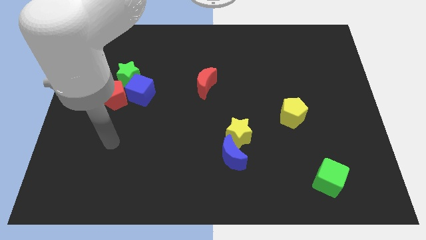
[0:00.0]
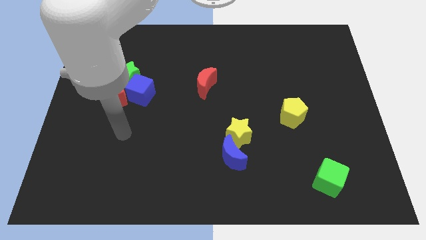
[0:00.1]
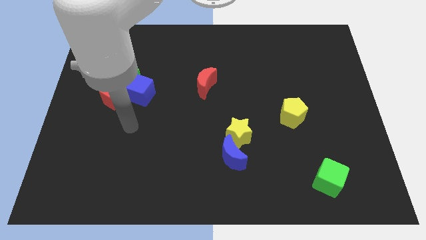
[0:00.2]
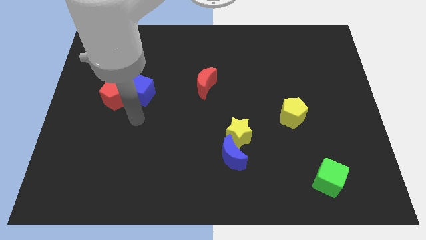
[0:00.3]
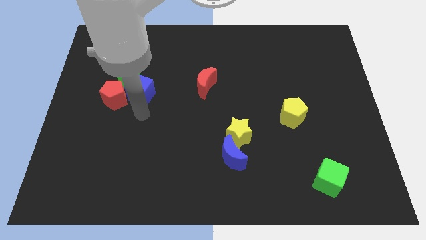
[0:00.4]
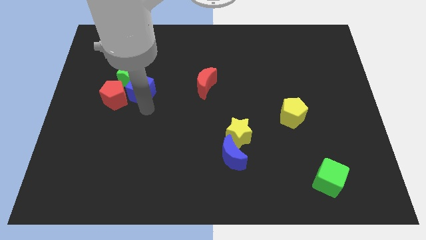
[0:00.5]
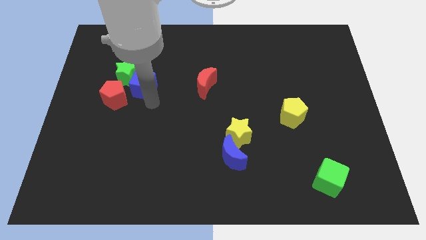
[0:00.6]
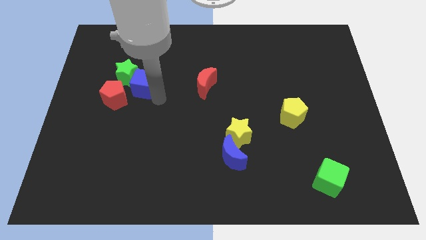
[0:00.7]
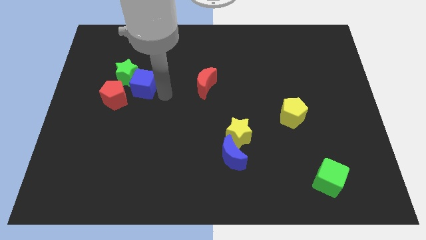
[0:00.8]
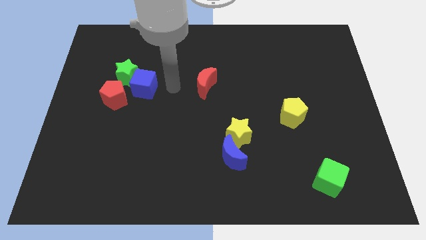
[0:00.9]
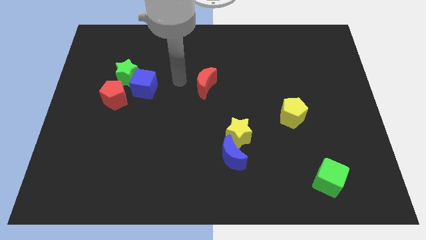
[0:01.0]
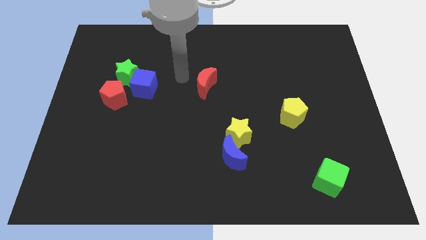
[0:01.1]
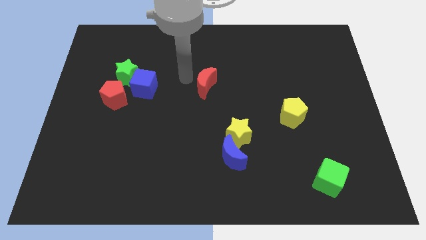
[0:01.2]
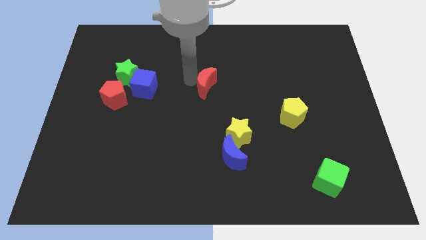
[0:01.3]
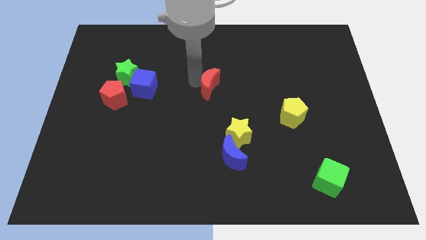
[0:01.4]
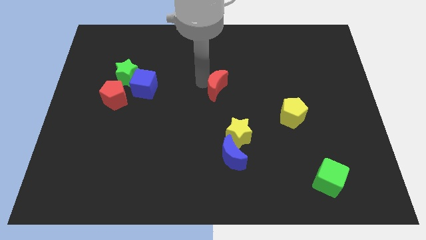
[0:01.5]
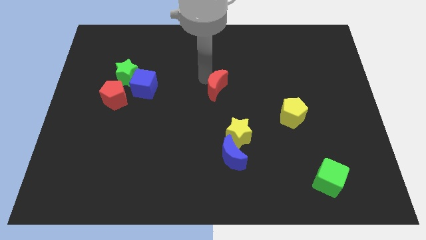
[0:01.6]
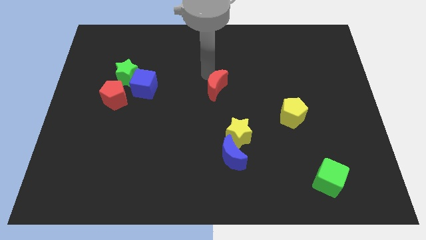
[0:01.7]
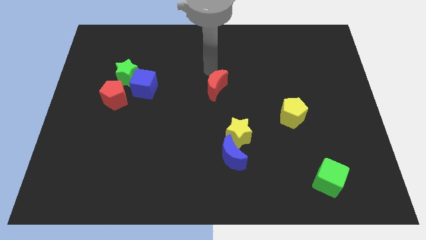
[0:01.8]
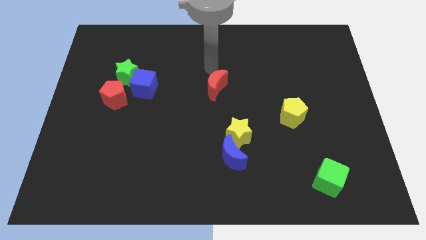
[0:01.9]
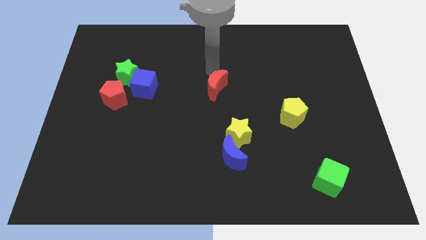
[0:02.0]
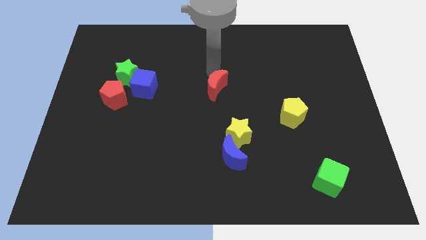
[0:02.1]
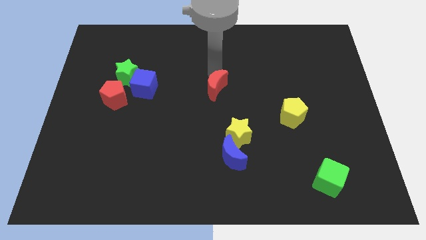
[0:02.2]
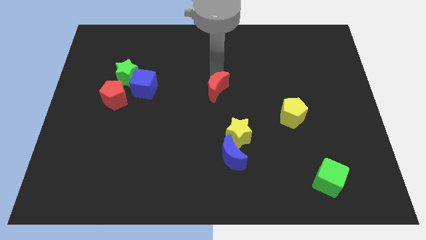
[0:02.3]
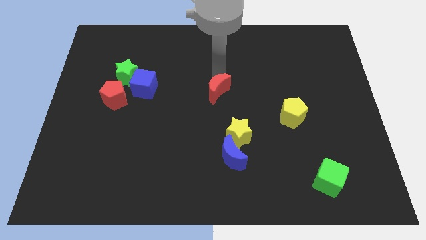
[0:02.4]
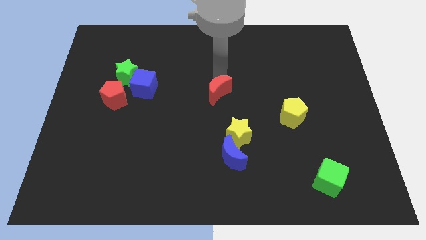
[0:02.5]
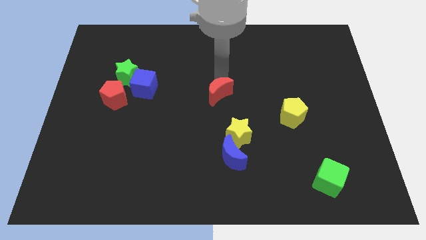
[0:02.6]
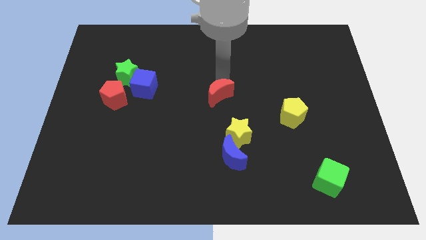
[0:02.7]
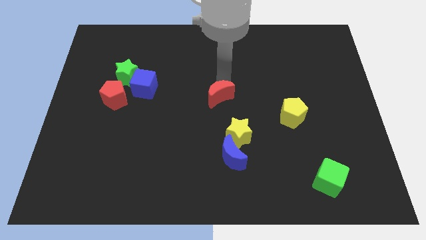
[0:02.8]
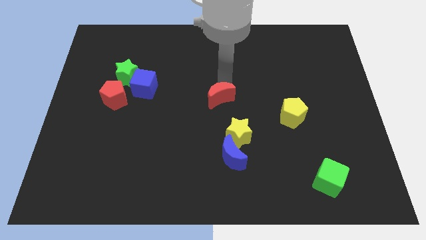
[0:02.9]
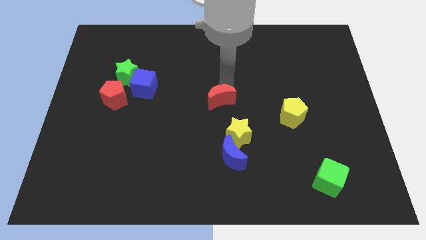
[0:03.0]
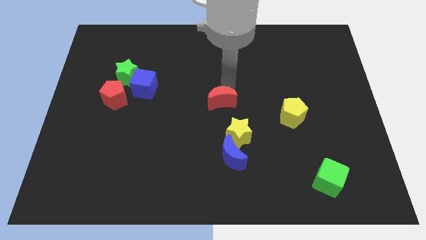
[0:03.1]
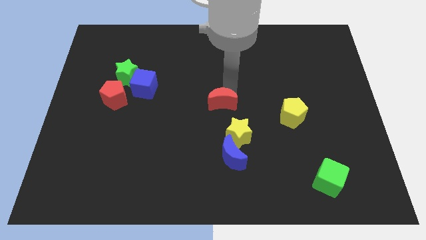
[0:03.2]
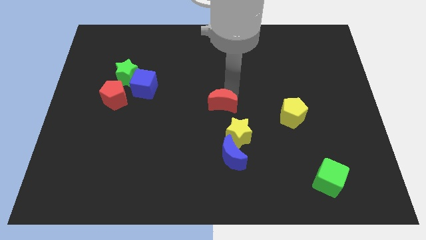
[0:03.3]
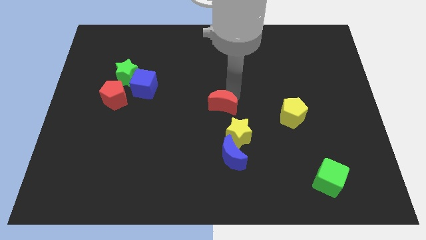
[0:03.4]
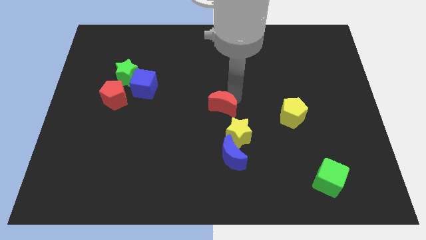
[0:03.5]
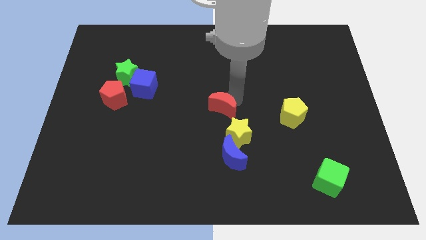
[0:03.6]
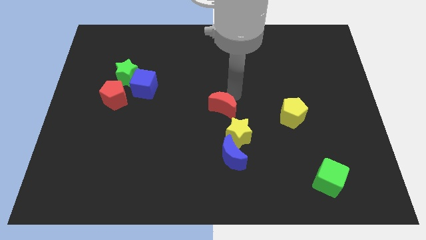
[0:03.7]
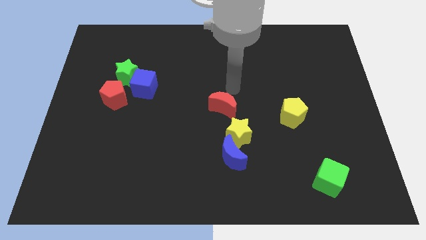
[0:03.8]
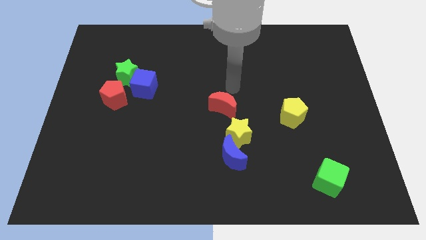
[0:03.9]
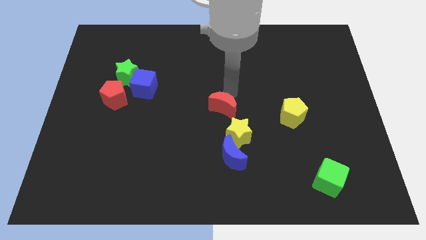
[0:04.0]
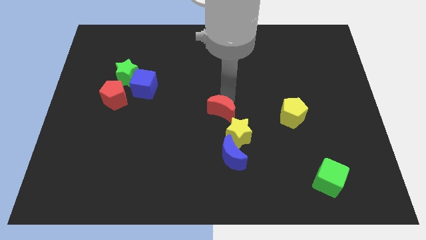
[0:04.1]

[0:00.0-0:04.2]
slide the red moon downwards a little

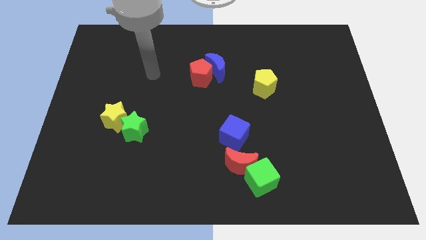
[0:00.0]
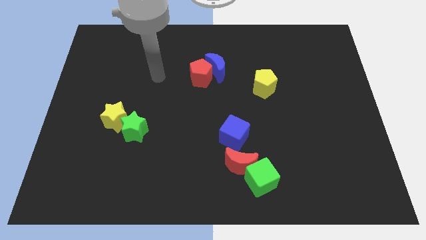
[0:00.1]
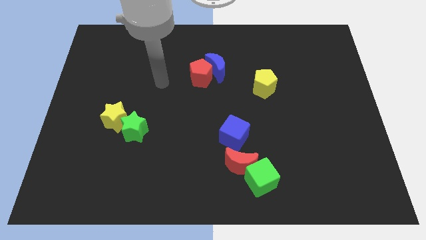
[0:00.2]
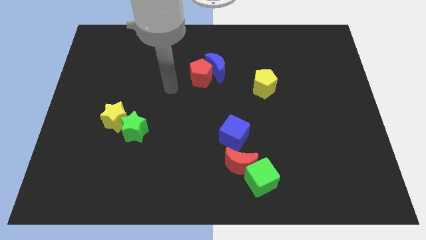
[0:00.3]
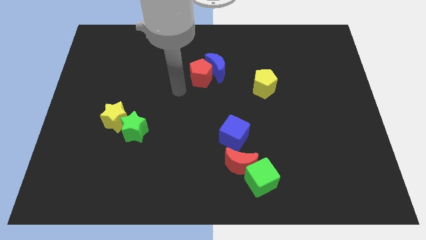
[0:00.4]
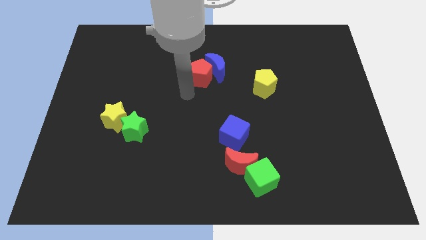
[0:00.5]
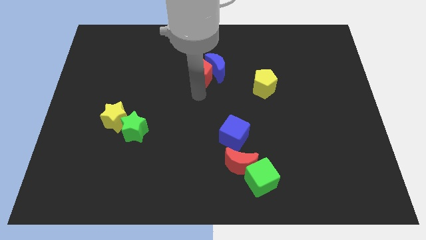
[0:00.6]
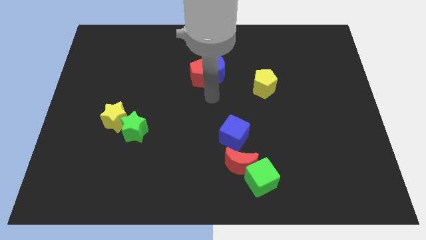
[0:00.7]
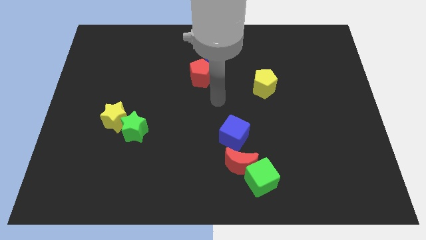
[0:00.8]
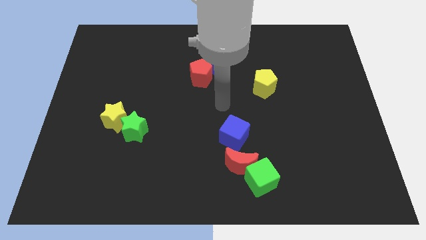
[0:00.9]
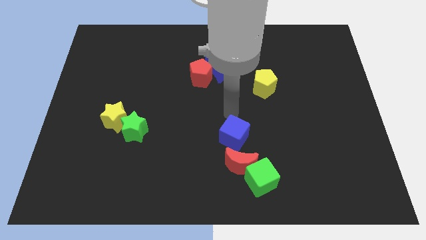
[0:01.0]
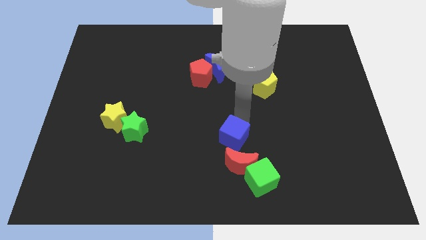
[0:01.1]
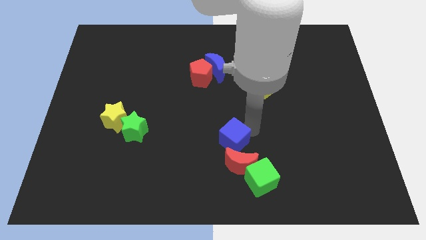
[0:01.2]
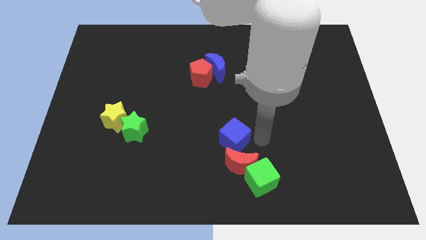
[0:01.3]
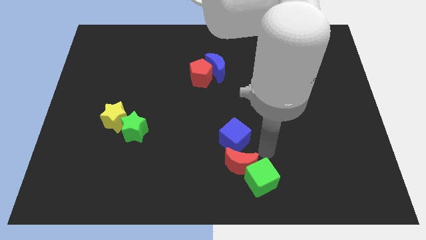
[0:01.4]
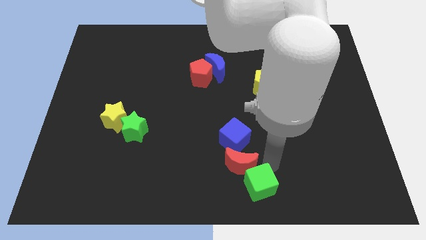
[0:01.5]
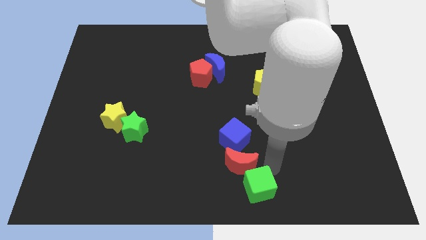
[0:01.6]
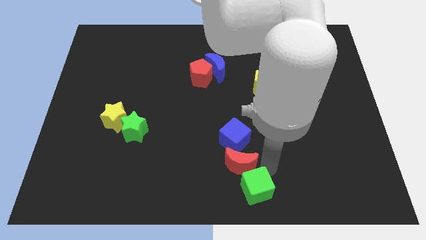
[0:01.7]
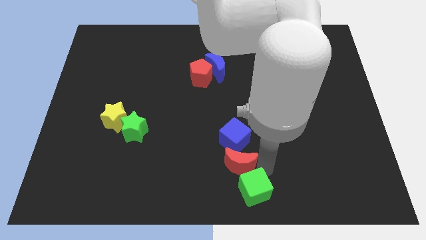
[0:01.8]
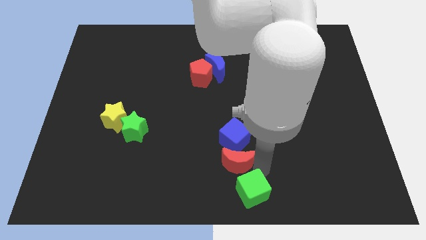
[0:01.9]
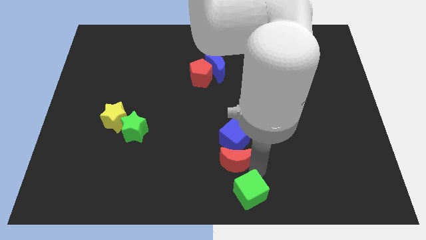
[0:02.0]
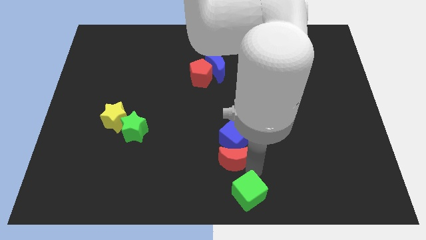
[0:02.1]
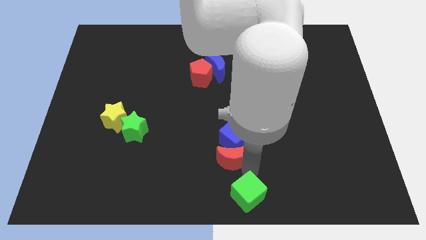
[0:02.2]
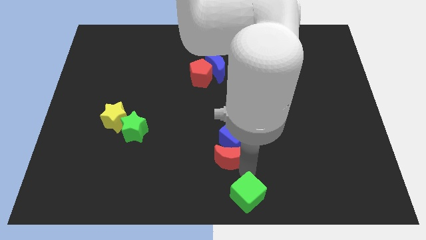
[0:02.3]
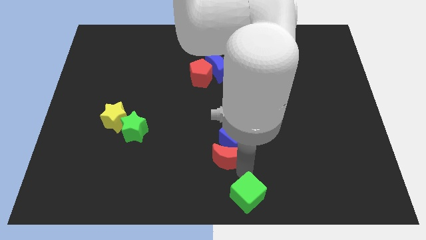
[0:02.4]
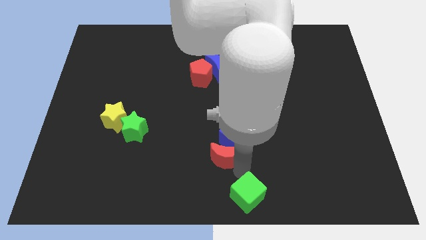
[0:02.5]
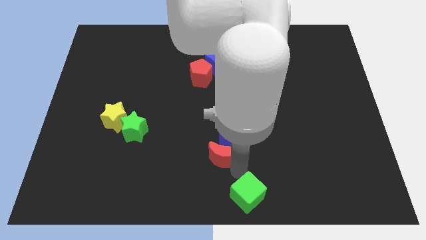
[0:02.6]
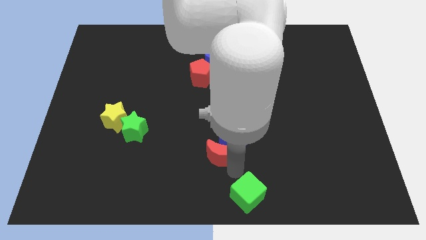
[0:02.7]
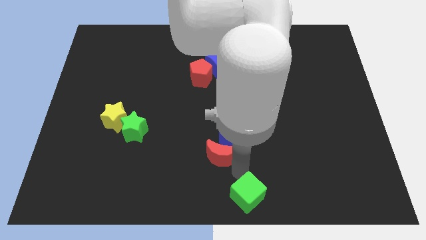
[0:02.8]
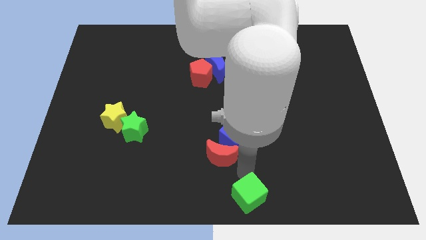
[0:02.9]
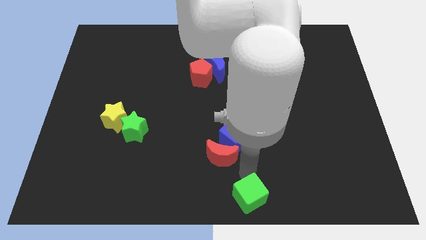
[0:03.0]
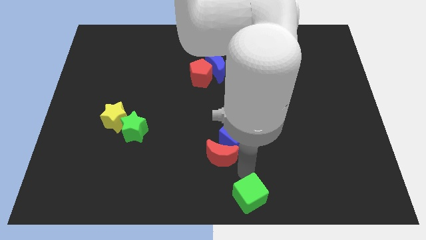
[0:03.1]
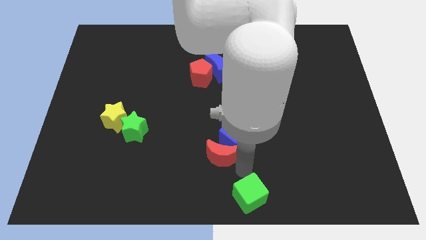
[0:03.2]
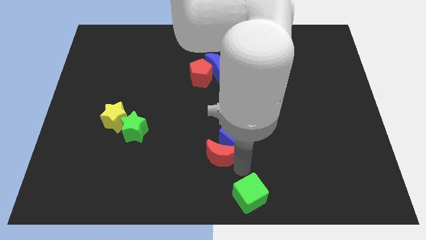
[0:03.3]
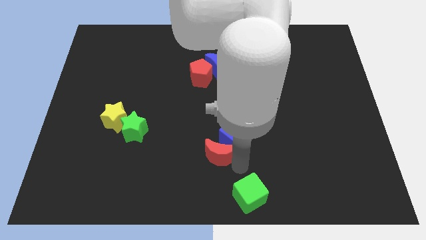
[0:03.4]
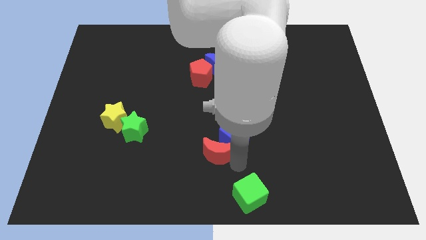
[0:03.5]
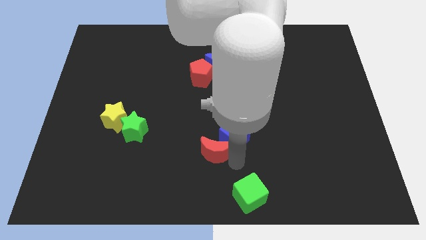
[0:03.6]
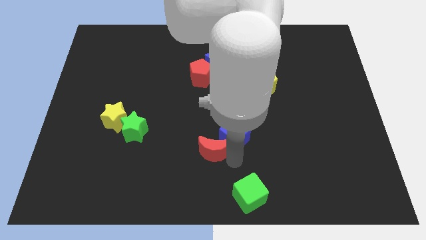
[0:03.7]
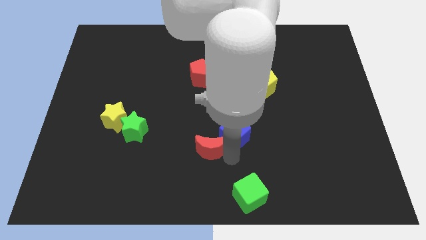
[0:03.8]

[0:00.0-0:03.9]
push the red moon up and left somewhat

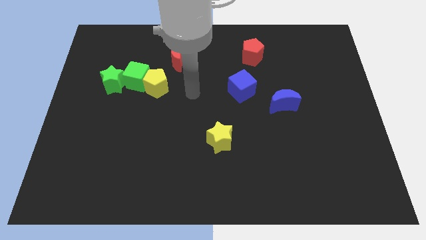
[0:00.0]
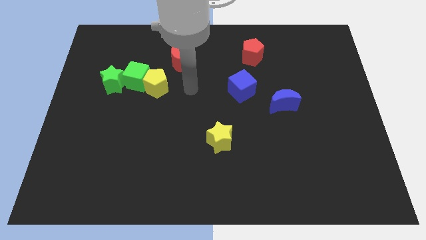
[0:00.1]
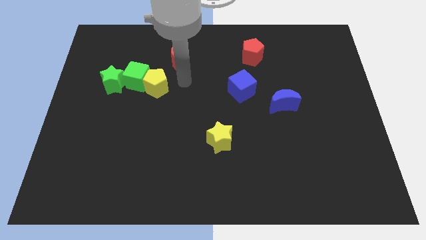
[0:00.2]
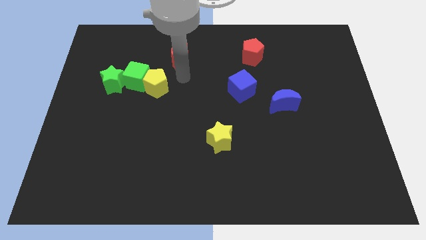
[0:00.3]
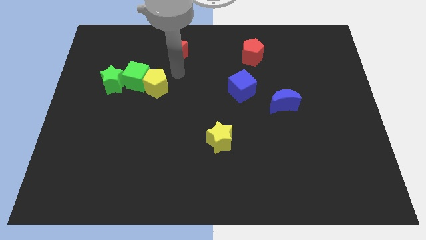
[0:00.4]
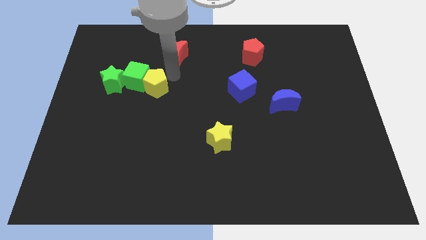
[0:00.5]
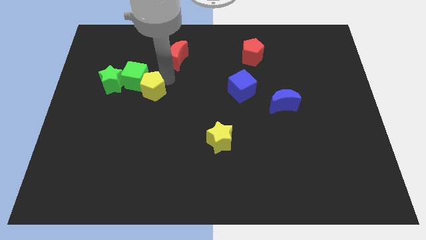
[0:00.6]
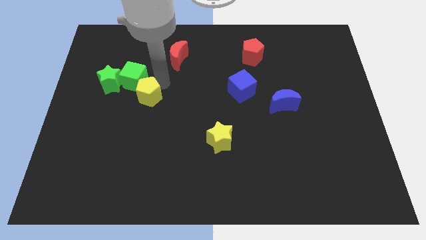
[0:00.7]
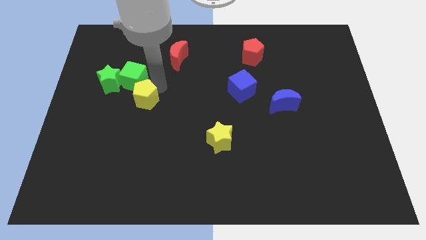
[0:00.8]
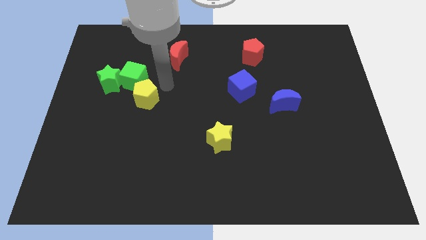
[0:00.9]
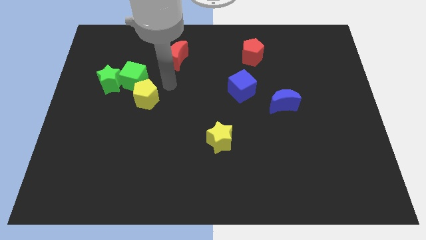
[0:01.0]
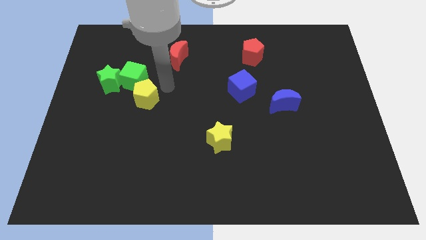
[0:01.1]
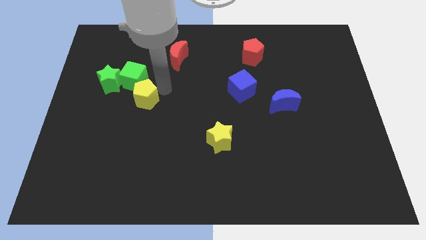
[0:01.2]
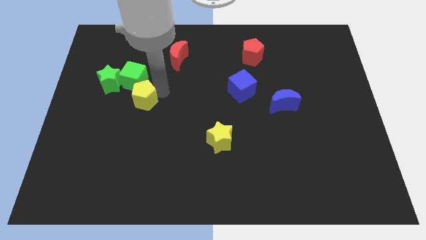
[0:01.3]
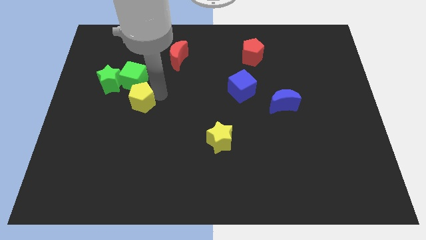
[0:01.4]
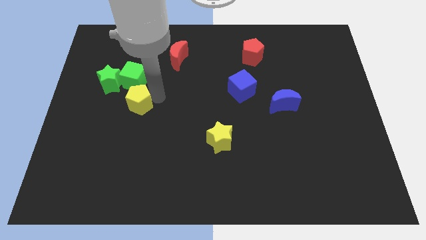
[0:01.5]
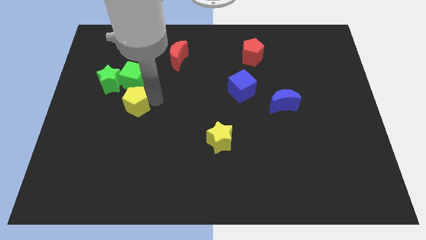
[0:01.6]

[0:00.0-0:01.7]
slide the yellow pentagon somewhat diagonally downwards and to the left
